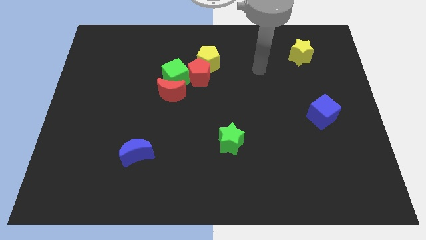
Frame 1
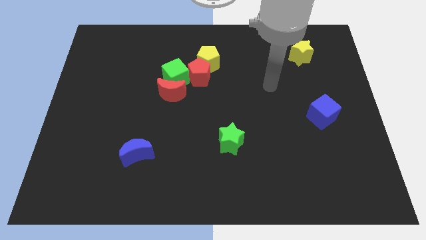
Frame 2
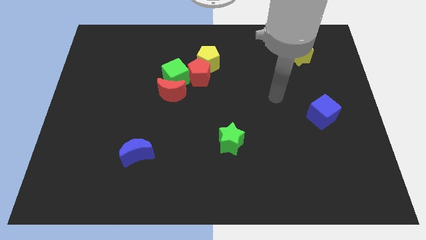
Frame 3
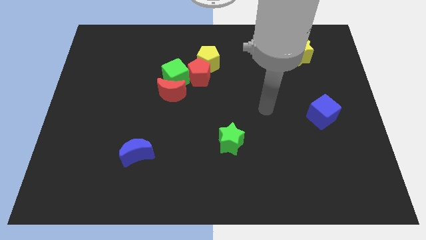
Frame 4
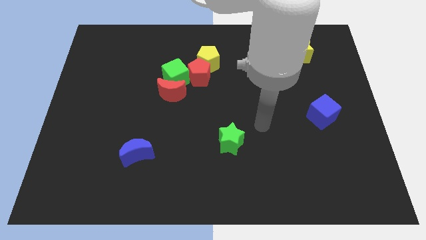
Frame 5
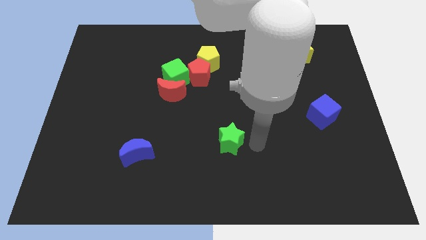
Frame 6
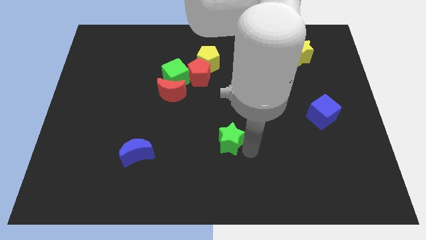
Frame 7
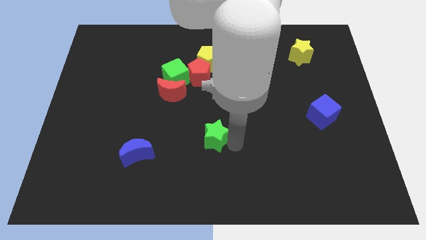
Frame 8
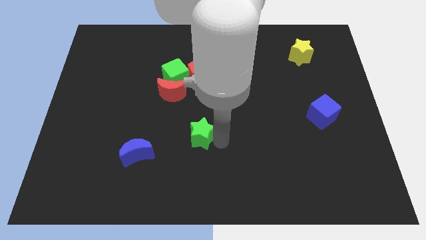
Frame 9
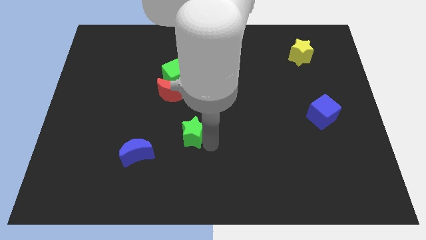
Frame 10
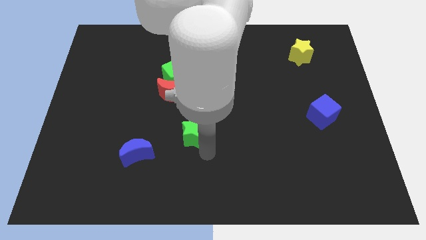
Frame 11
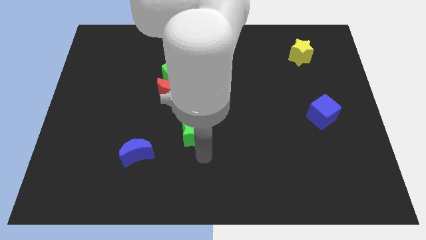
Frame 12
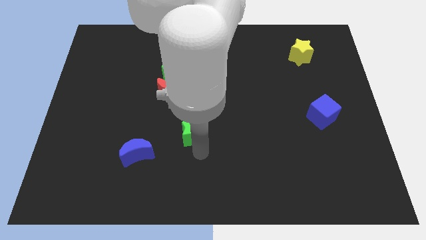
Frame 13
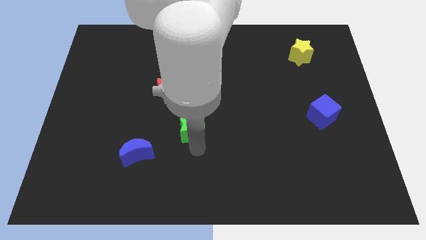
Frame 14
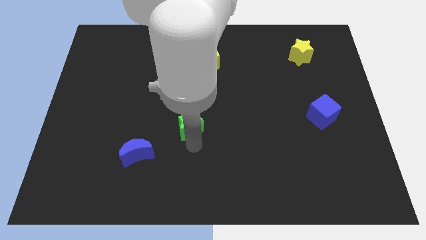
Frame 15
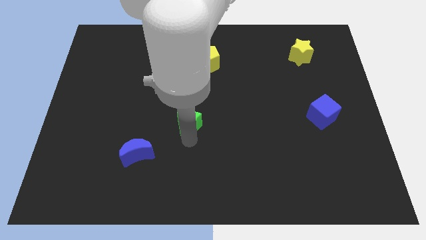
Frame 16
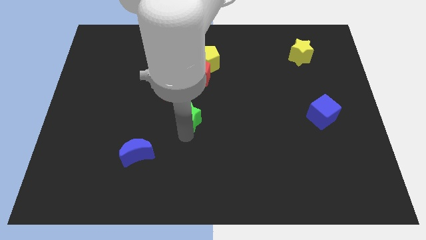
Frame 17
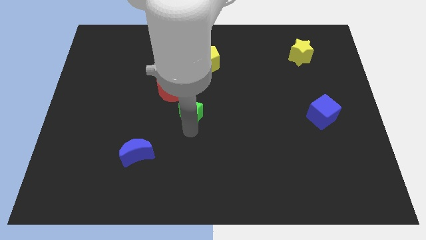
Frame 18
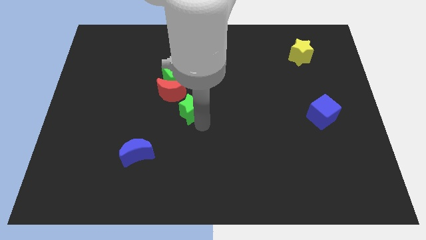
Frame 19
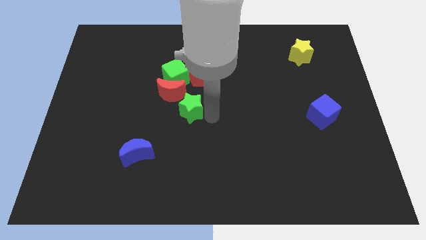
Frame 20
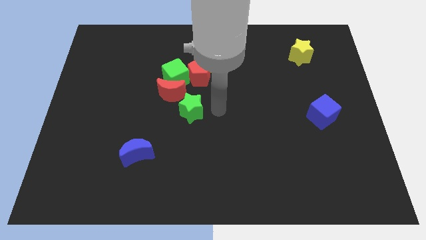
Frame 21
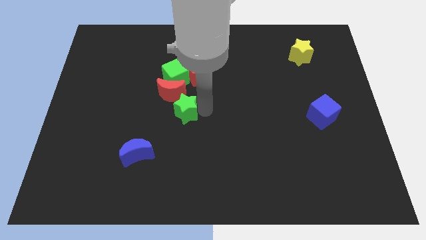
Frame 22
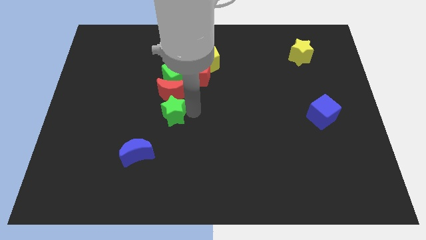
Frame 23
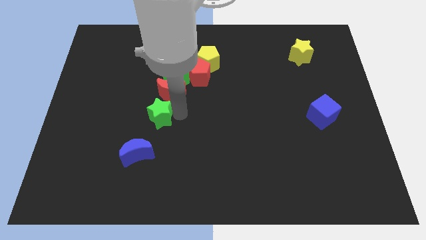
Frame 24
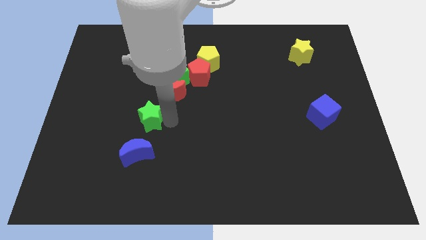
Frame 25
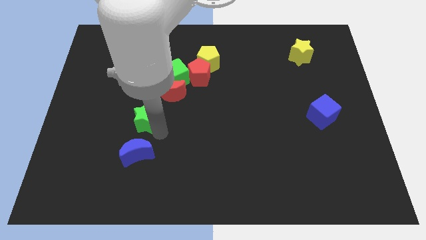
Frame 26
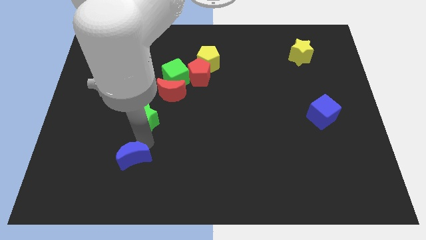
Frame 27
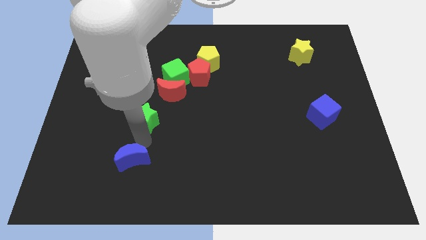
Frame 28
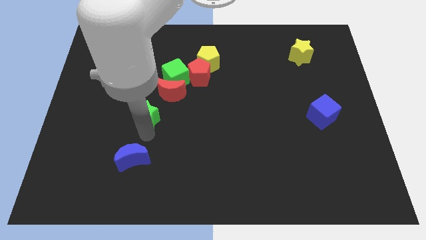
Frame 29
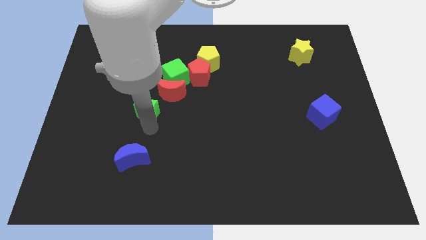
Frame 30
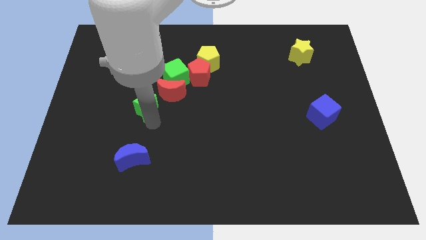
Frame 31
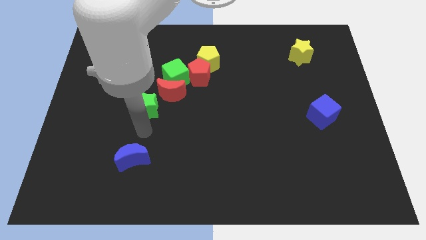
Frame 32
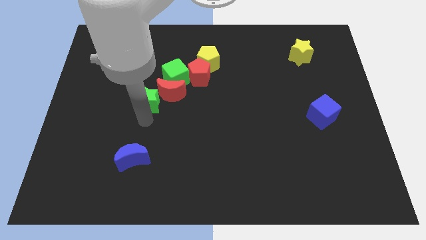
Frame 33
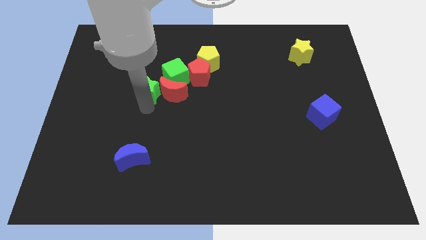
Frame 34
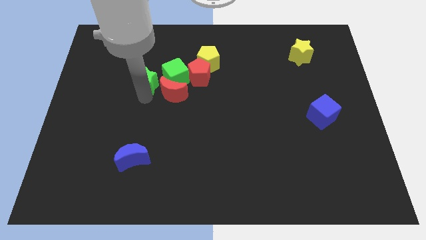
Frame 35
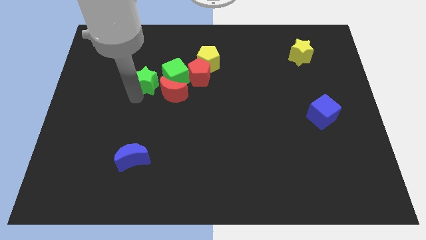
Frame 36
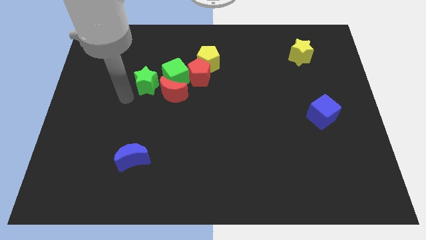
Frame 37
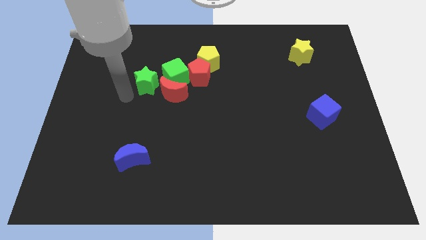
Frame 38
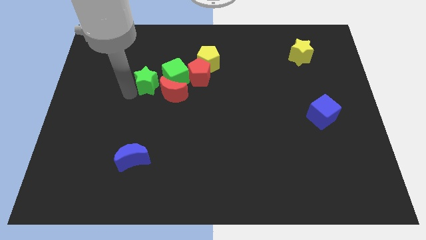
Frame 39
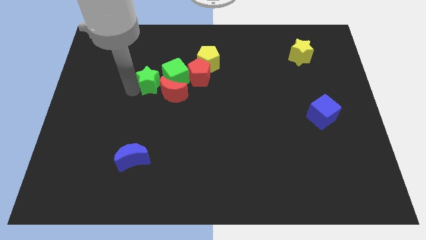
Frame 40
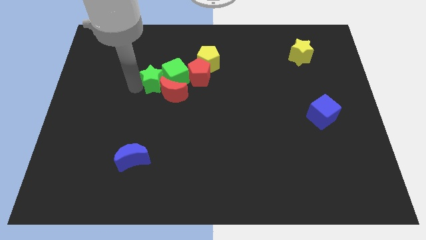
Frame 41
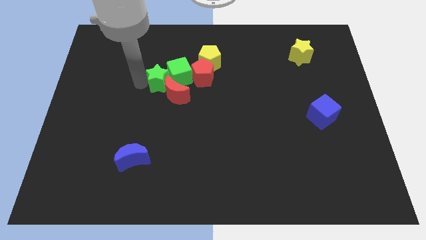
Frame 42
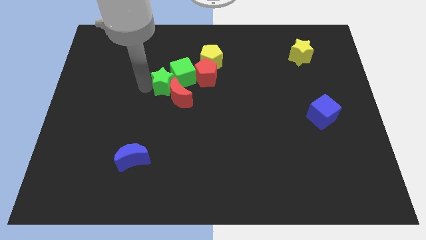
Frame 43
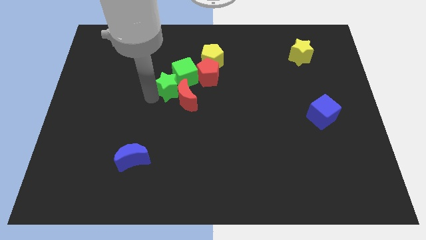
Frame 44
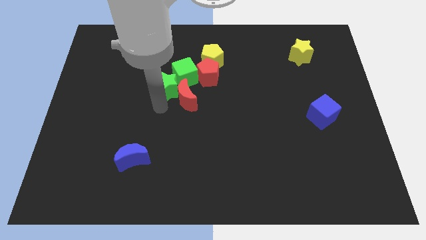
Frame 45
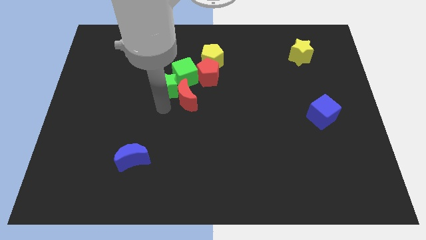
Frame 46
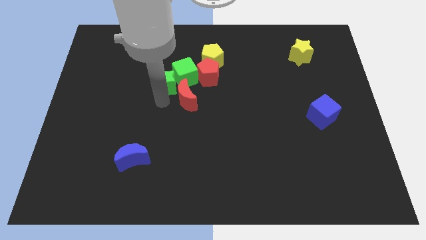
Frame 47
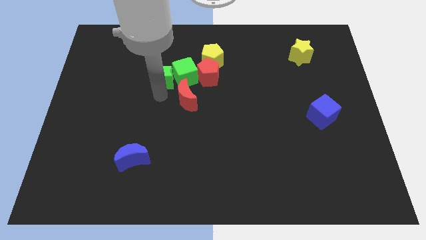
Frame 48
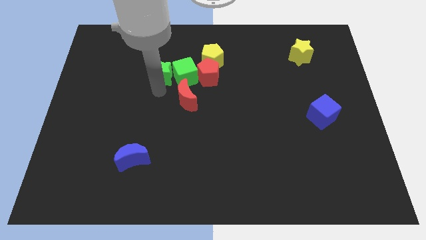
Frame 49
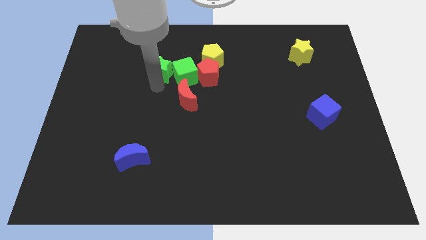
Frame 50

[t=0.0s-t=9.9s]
push the green star to the left side of the yellow pentagon

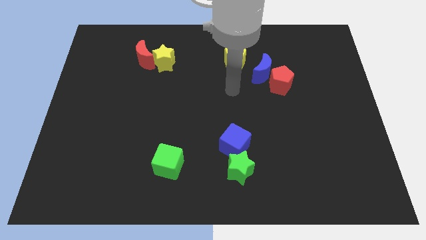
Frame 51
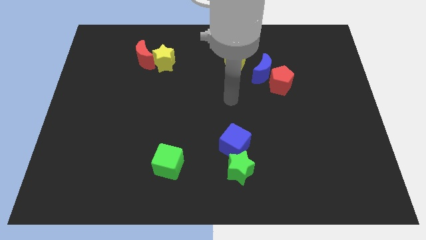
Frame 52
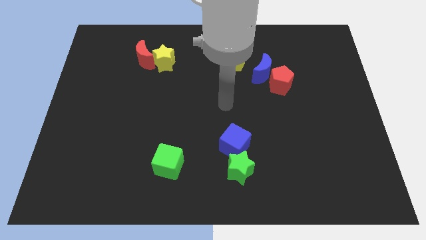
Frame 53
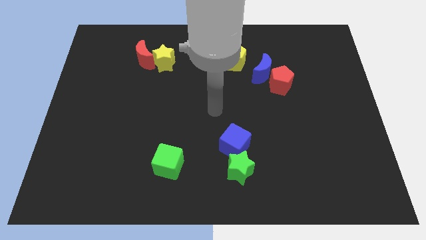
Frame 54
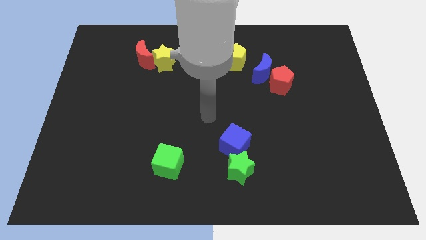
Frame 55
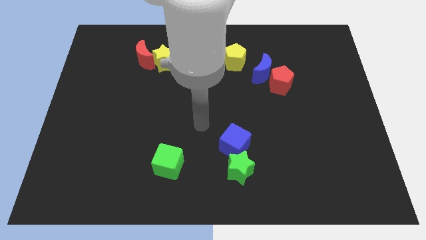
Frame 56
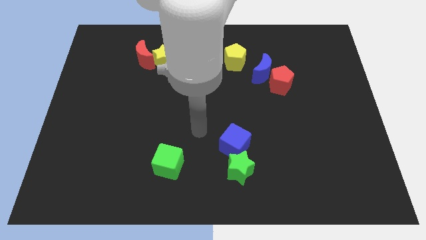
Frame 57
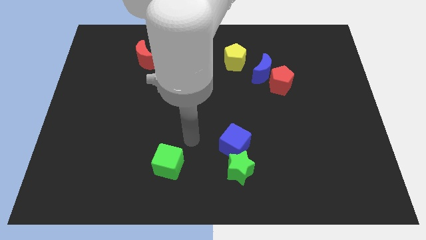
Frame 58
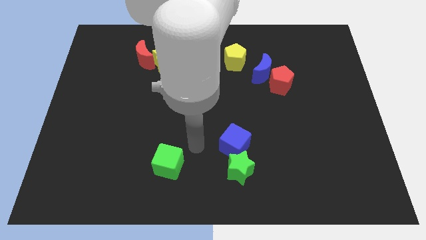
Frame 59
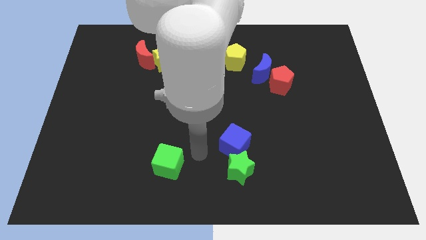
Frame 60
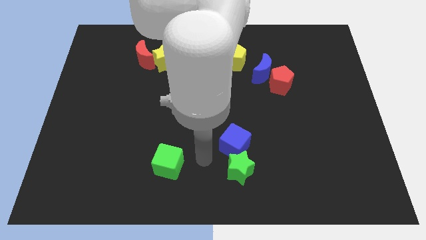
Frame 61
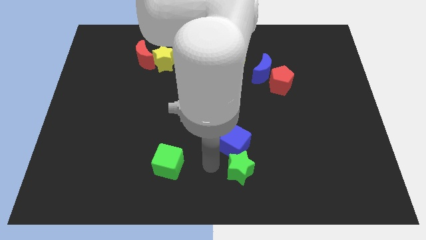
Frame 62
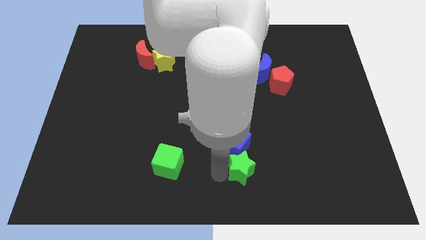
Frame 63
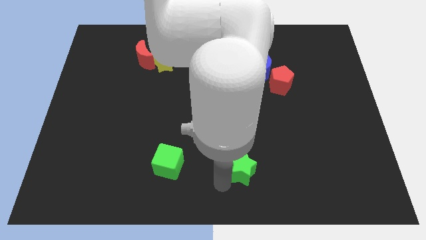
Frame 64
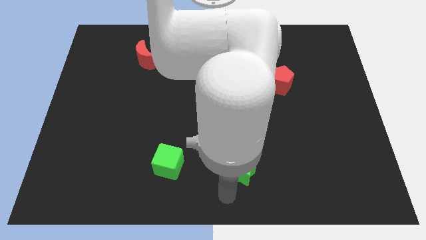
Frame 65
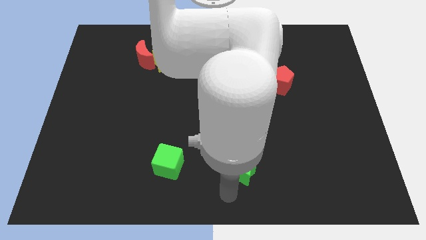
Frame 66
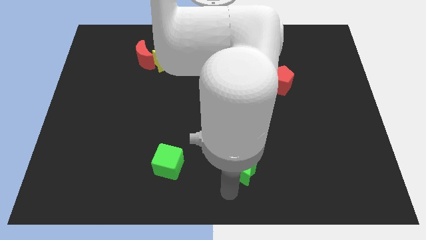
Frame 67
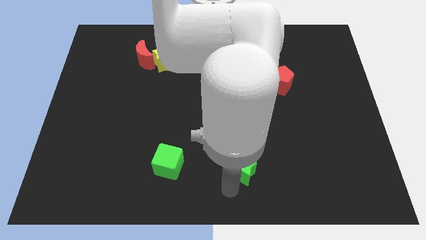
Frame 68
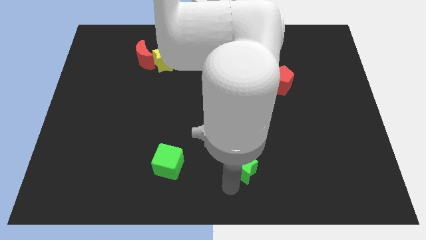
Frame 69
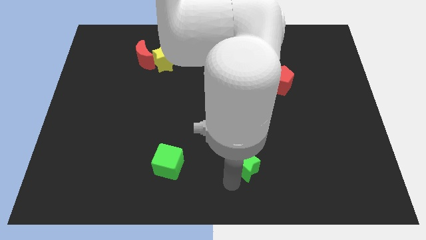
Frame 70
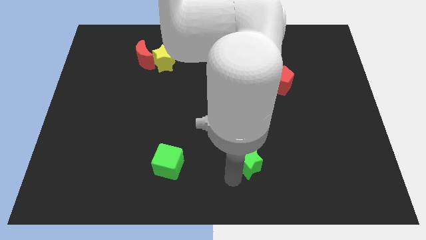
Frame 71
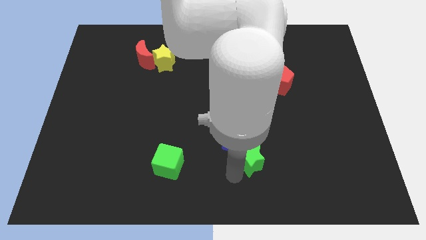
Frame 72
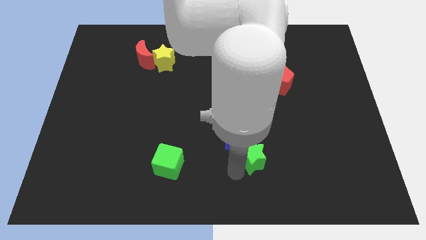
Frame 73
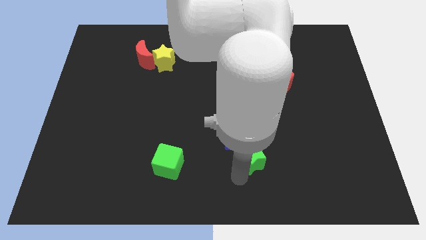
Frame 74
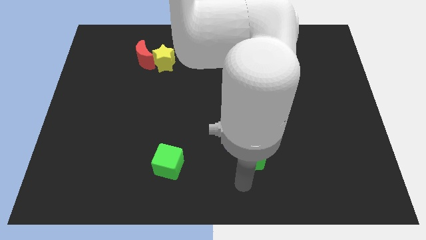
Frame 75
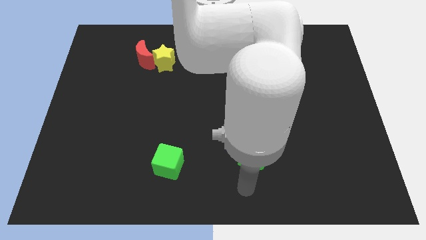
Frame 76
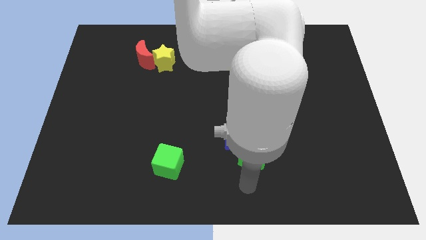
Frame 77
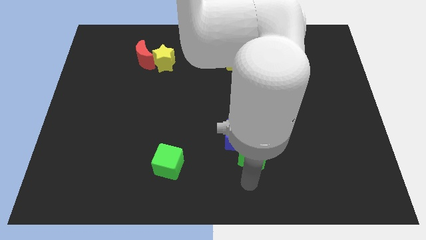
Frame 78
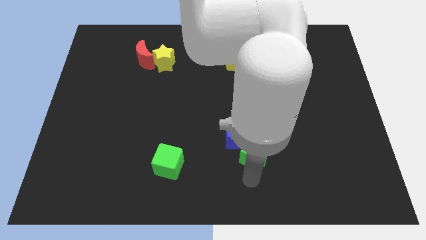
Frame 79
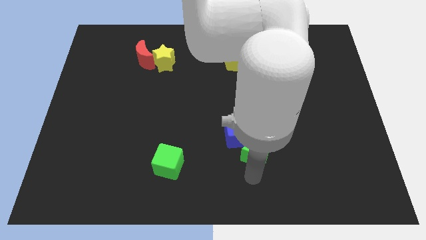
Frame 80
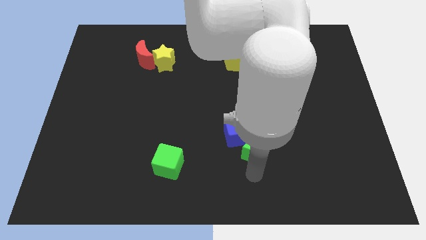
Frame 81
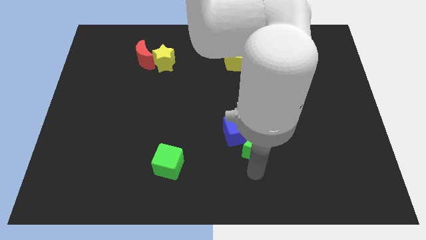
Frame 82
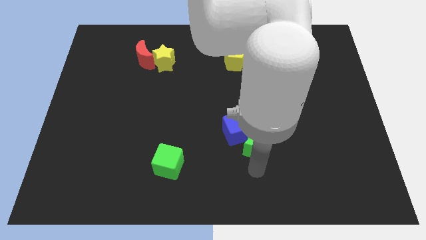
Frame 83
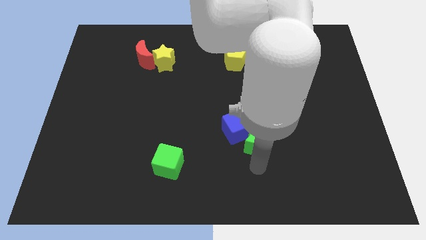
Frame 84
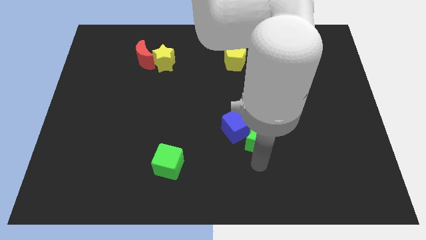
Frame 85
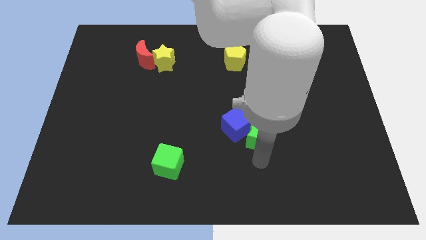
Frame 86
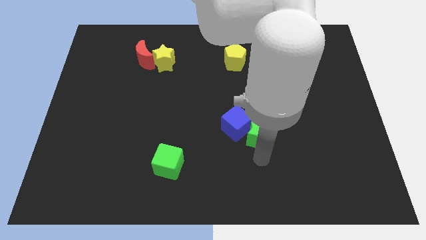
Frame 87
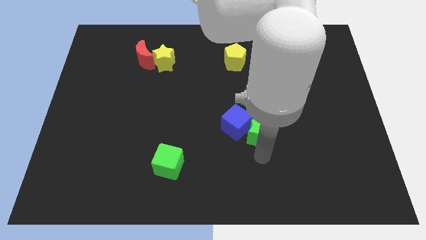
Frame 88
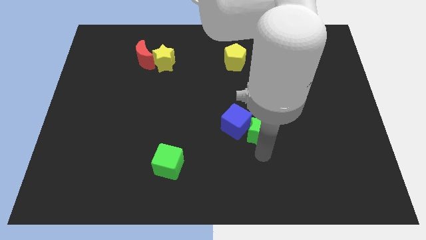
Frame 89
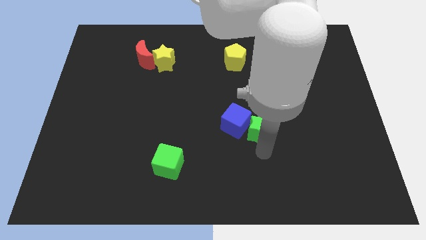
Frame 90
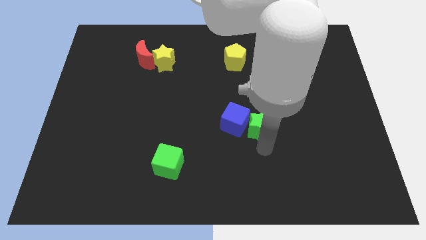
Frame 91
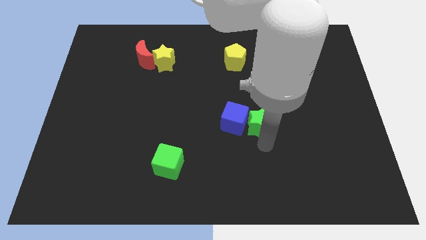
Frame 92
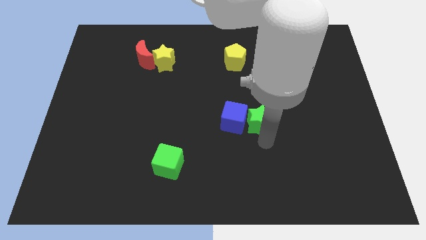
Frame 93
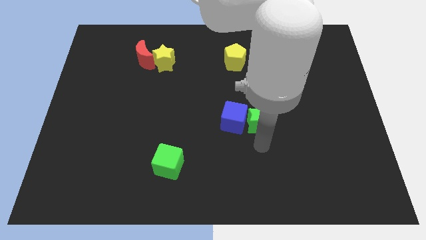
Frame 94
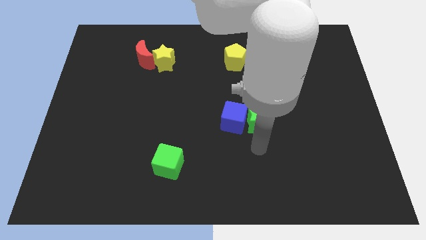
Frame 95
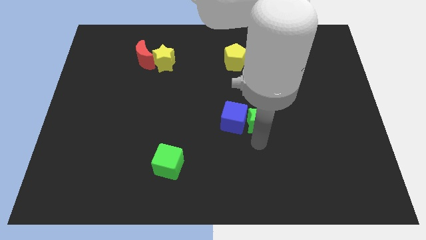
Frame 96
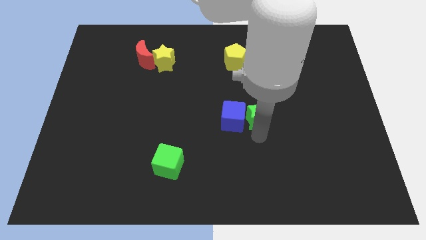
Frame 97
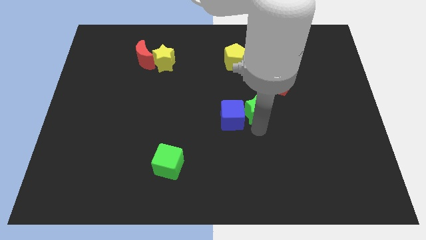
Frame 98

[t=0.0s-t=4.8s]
move the green star to the bottom left side of the red pentagon
